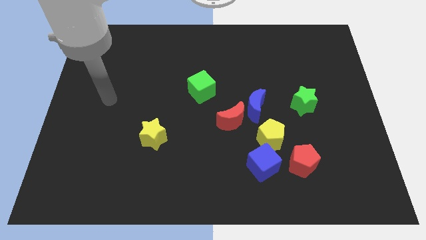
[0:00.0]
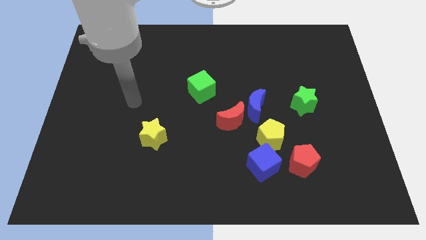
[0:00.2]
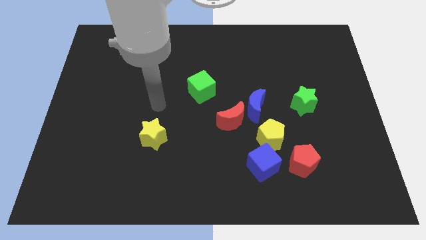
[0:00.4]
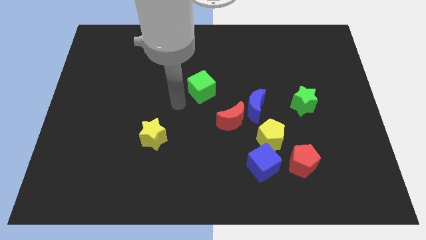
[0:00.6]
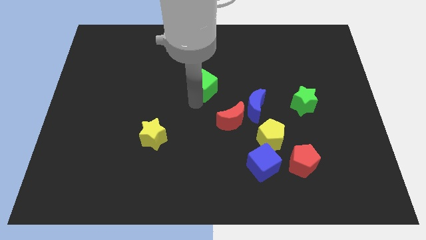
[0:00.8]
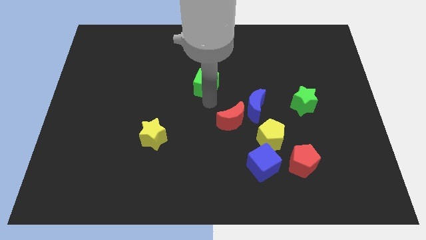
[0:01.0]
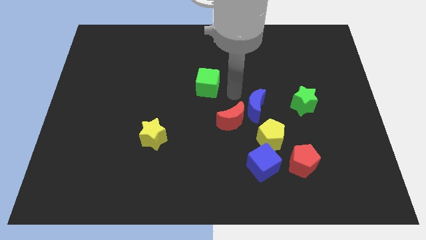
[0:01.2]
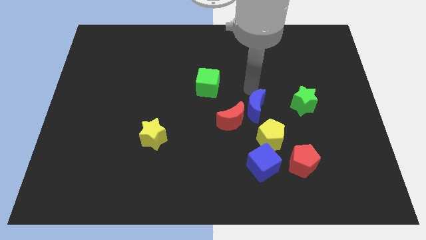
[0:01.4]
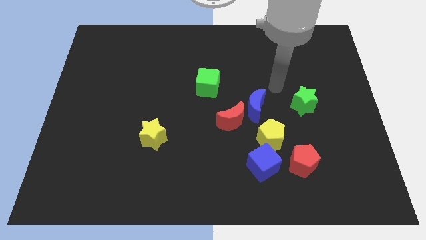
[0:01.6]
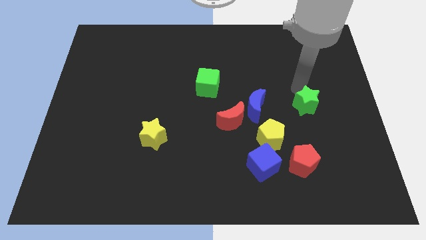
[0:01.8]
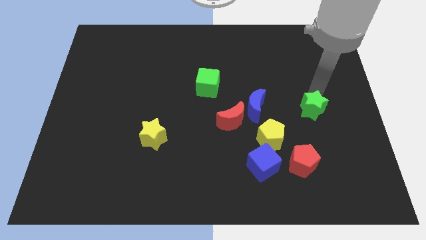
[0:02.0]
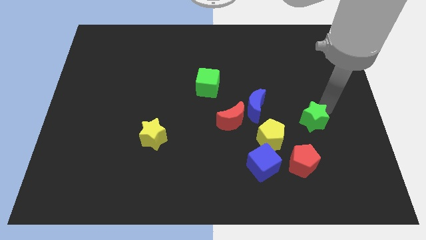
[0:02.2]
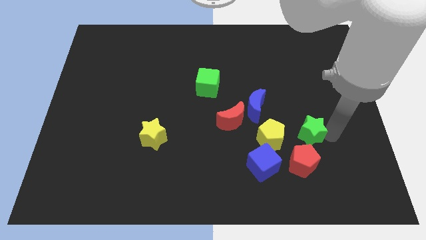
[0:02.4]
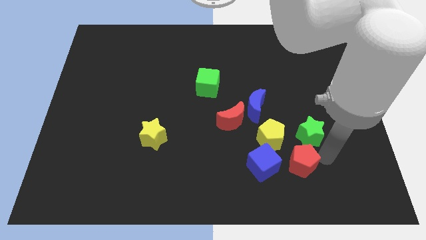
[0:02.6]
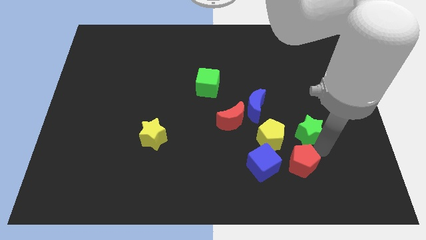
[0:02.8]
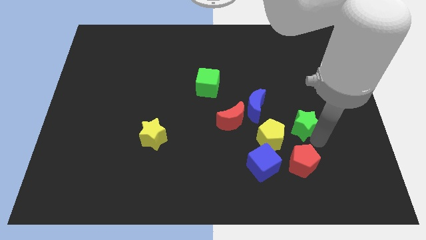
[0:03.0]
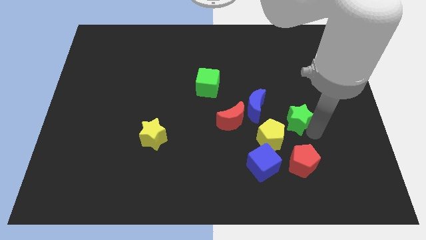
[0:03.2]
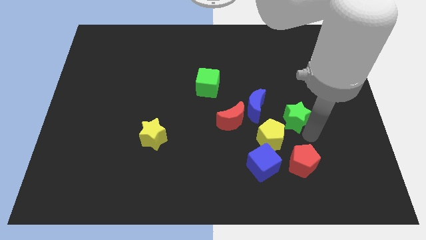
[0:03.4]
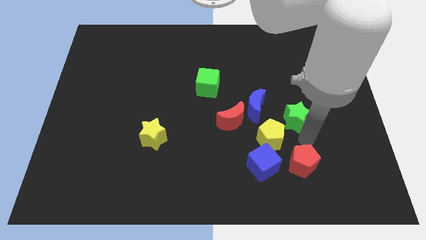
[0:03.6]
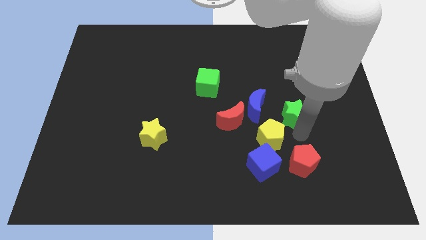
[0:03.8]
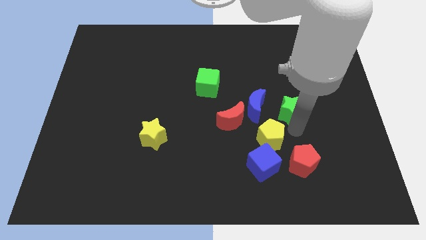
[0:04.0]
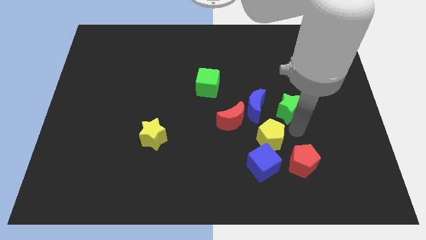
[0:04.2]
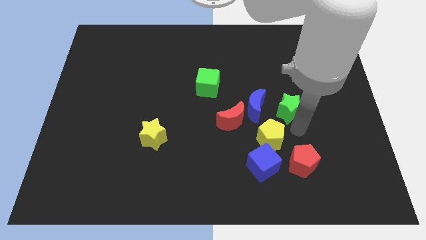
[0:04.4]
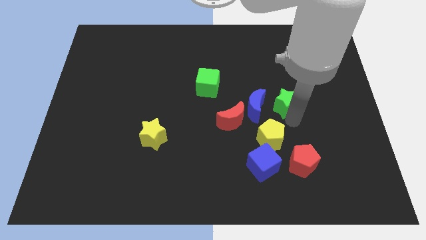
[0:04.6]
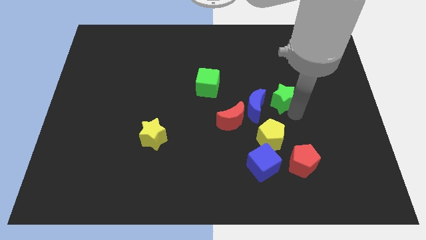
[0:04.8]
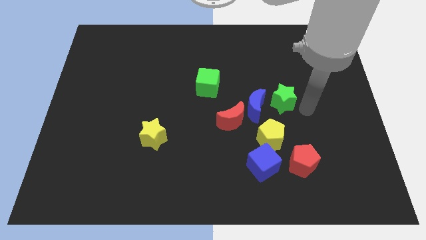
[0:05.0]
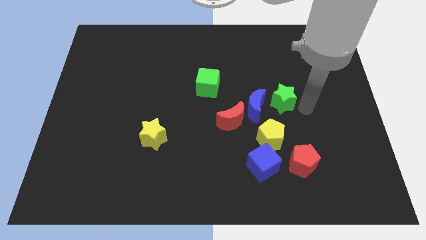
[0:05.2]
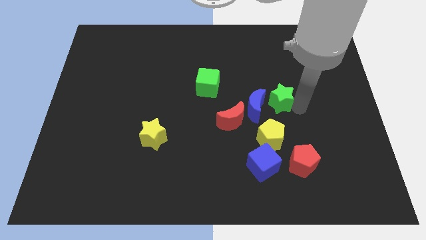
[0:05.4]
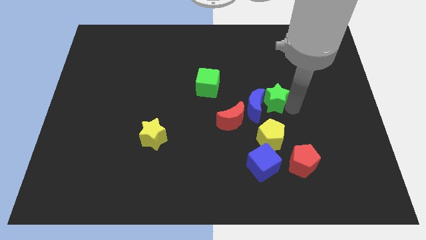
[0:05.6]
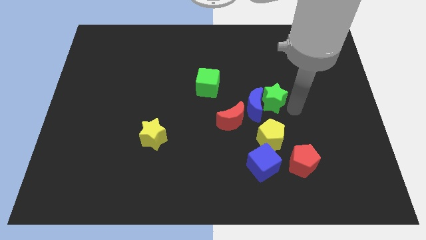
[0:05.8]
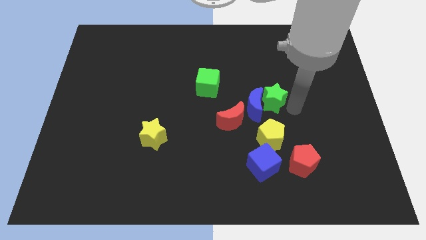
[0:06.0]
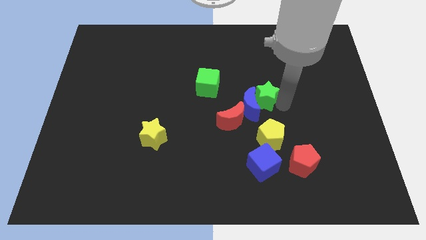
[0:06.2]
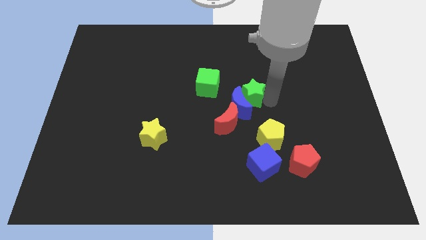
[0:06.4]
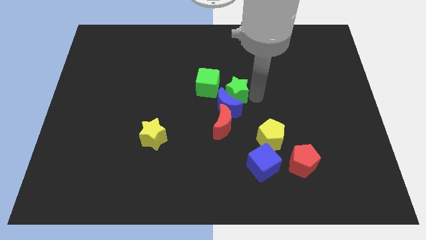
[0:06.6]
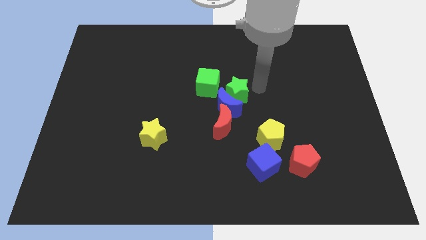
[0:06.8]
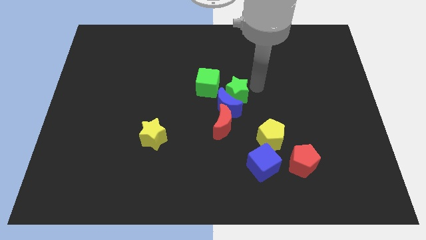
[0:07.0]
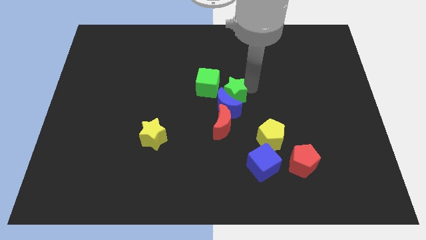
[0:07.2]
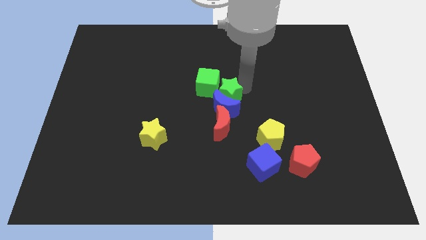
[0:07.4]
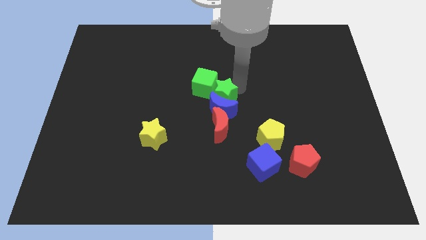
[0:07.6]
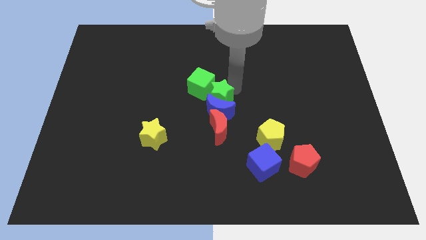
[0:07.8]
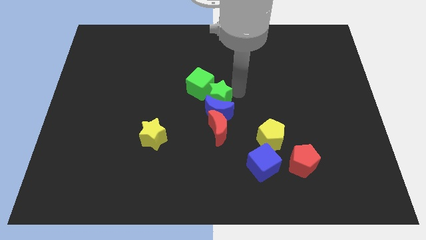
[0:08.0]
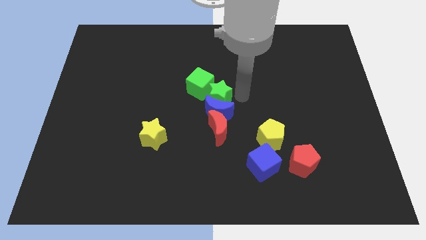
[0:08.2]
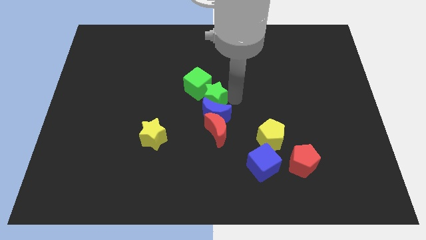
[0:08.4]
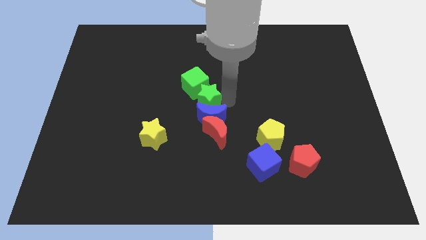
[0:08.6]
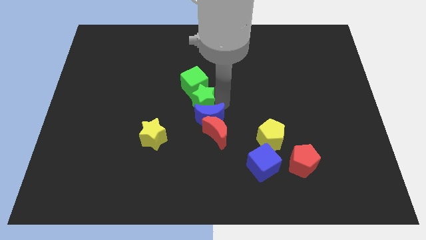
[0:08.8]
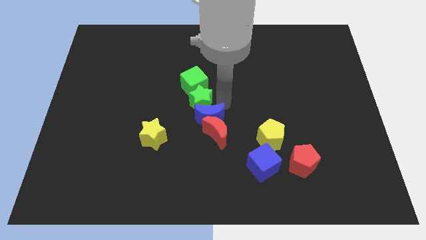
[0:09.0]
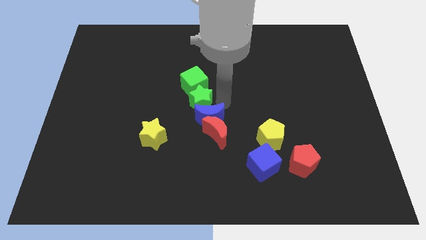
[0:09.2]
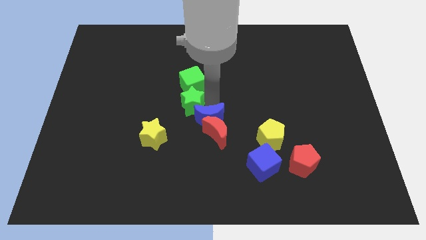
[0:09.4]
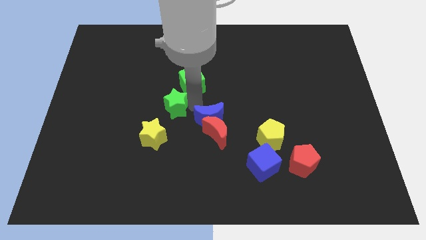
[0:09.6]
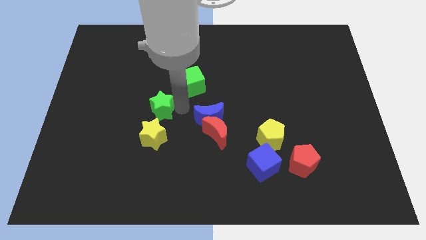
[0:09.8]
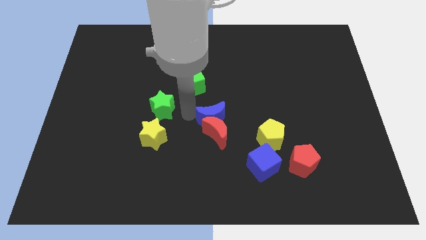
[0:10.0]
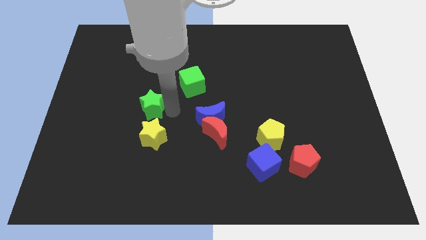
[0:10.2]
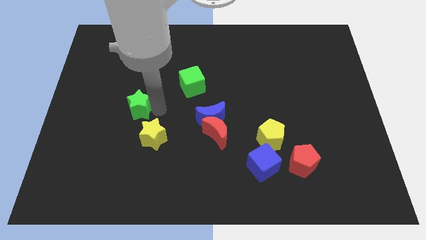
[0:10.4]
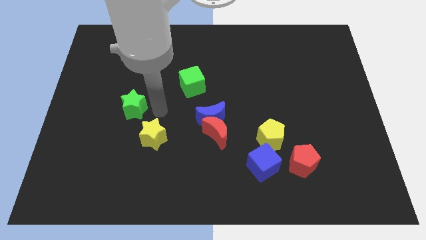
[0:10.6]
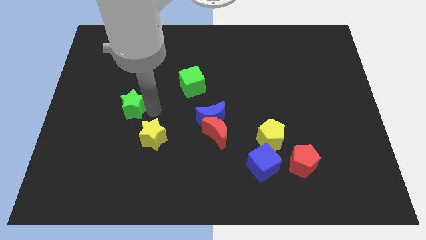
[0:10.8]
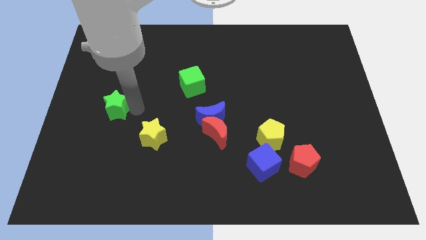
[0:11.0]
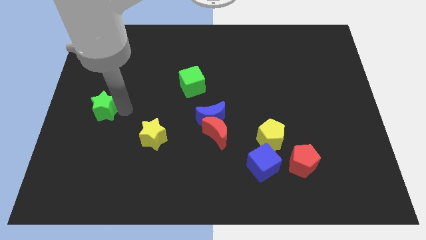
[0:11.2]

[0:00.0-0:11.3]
put the green star to the left side

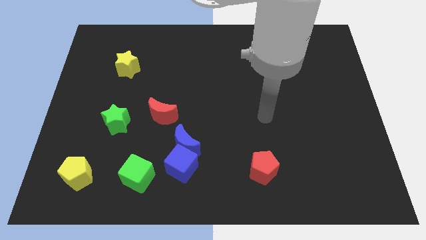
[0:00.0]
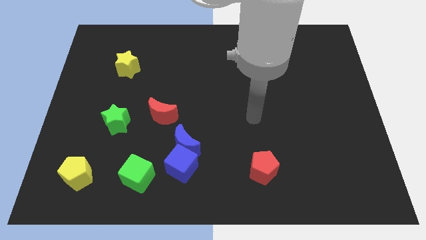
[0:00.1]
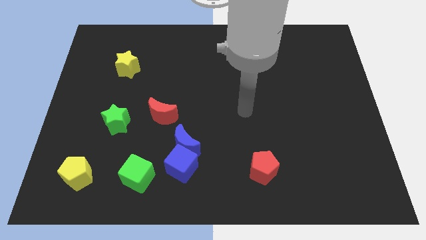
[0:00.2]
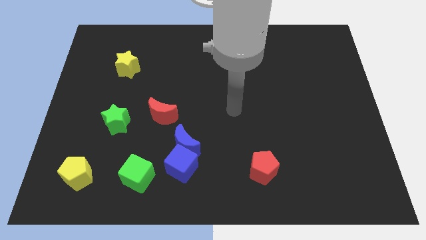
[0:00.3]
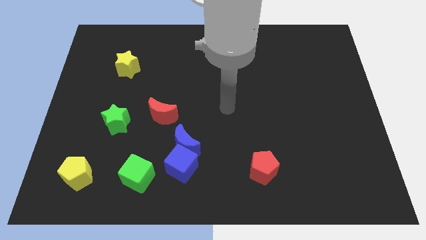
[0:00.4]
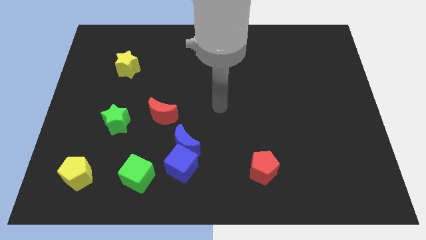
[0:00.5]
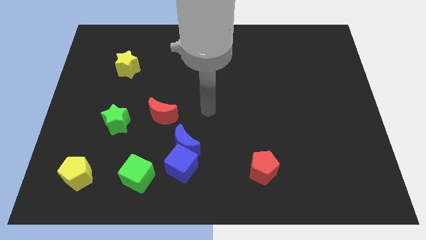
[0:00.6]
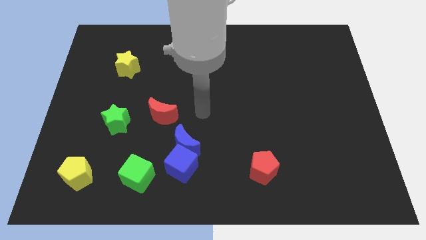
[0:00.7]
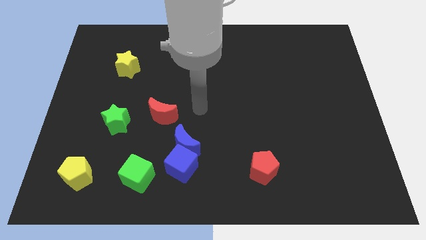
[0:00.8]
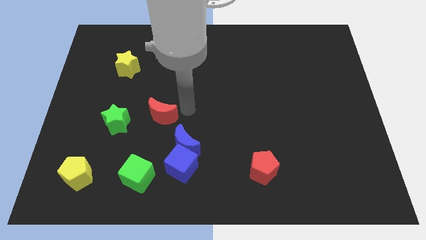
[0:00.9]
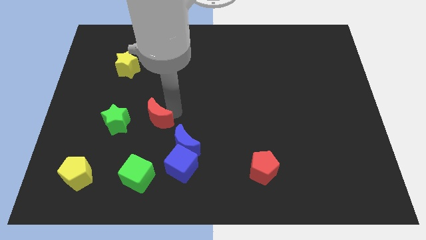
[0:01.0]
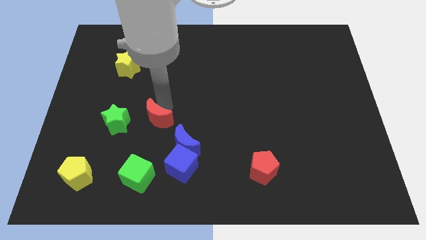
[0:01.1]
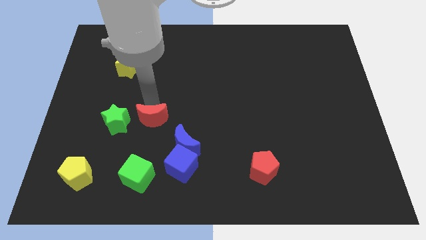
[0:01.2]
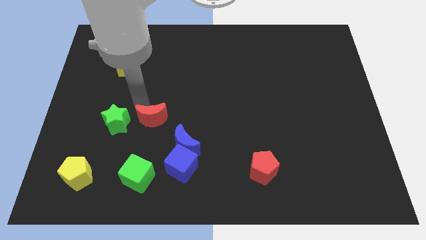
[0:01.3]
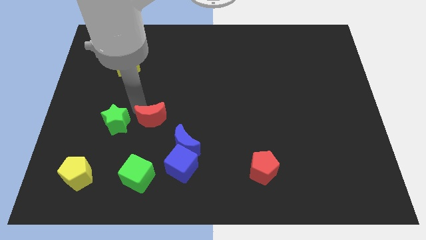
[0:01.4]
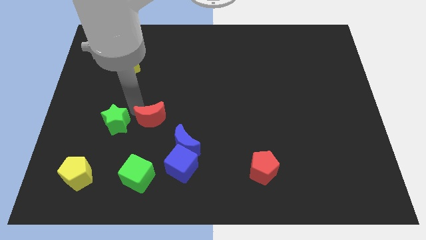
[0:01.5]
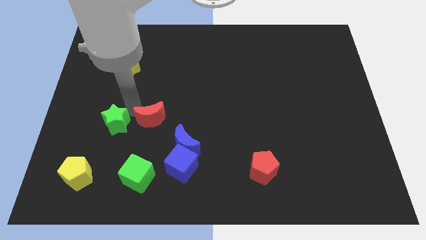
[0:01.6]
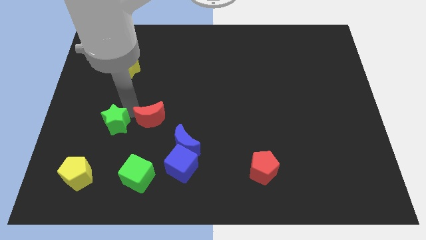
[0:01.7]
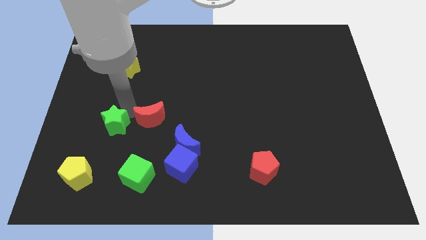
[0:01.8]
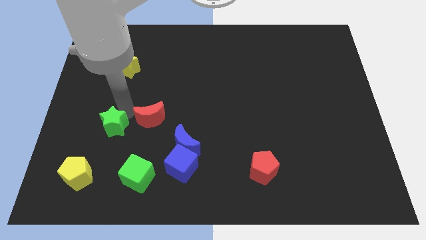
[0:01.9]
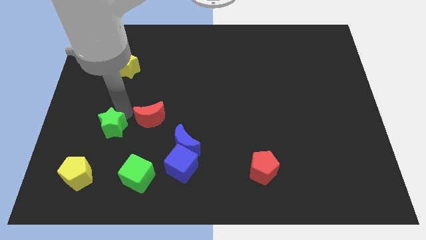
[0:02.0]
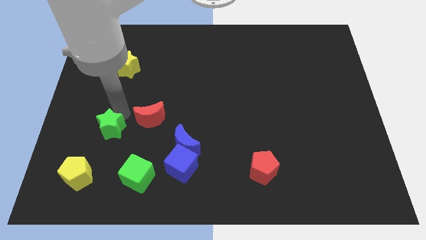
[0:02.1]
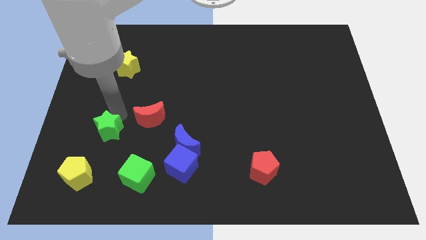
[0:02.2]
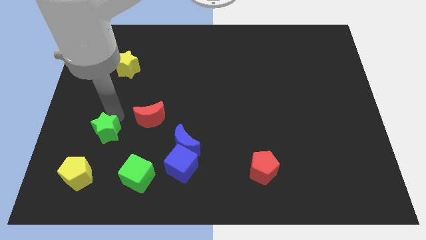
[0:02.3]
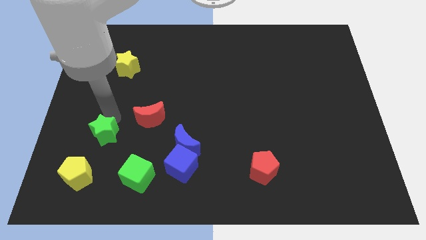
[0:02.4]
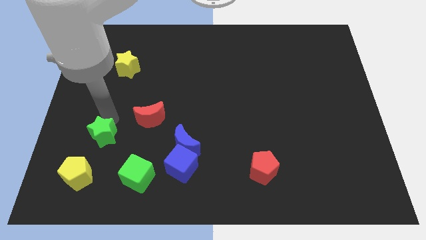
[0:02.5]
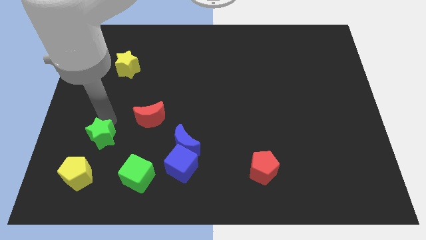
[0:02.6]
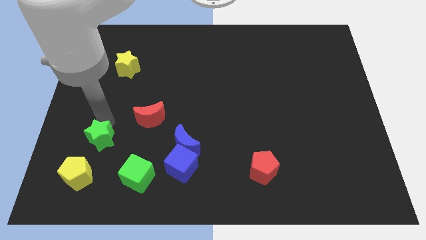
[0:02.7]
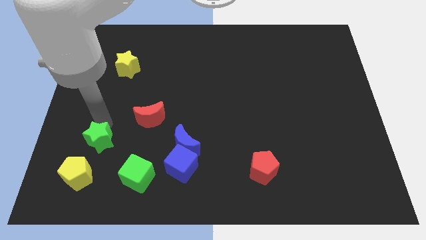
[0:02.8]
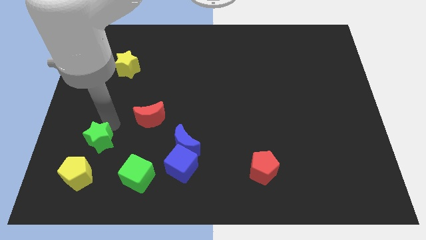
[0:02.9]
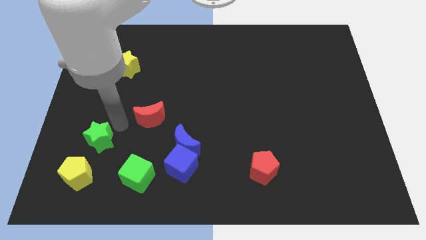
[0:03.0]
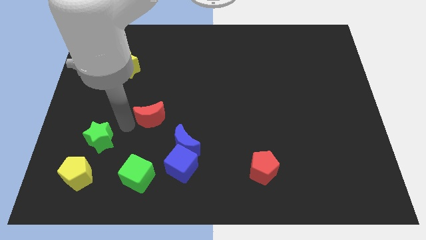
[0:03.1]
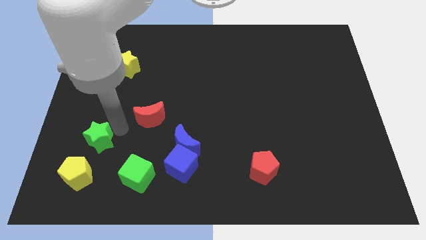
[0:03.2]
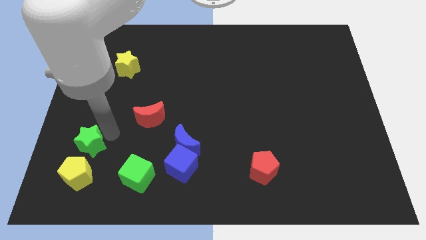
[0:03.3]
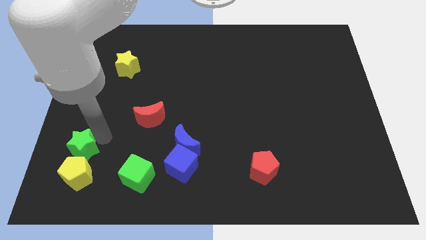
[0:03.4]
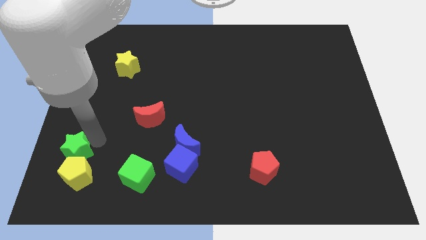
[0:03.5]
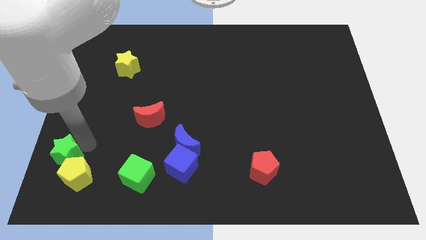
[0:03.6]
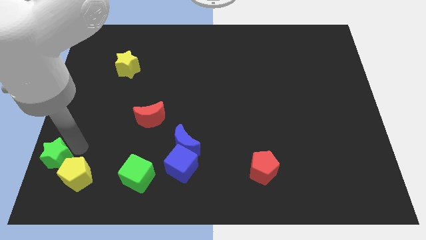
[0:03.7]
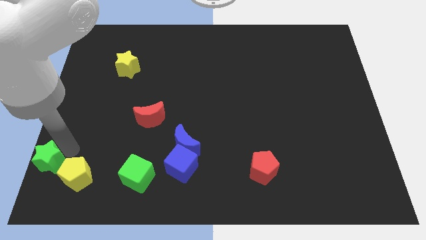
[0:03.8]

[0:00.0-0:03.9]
move the green star to the lower left corner
